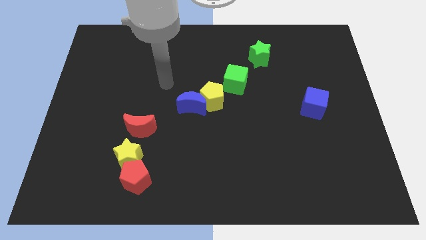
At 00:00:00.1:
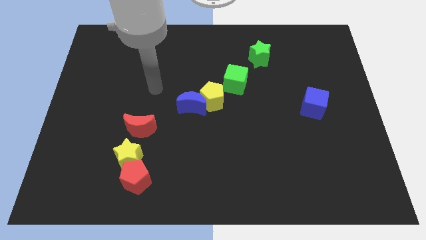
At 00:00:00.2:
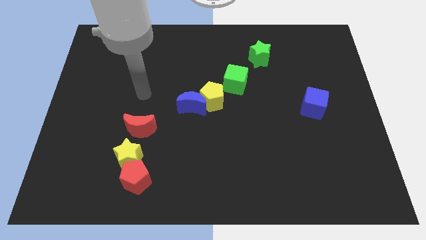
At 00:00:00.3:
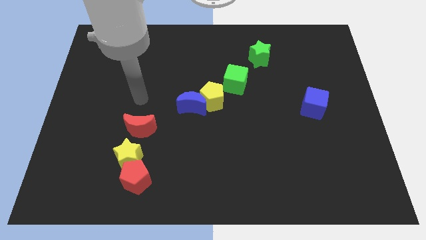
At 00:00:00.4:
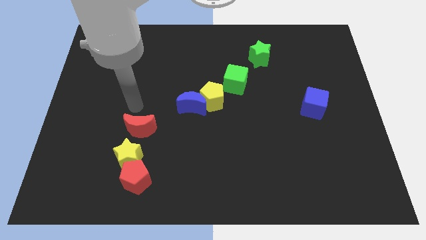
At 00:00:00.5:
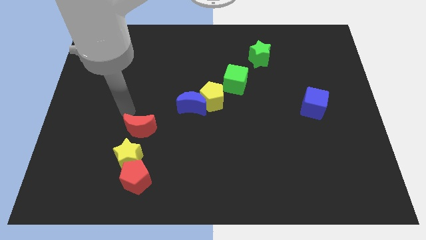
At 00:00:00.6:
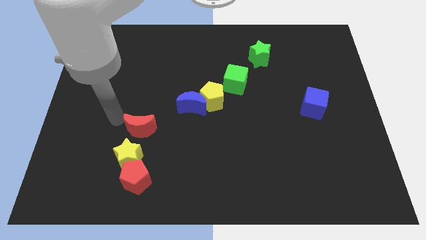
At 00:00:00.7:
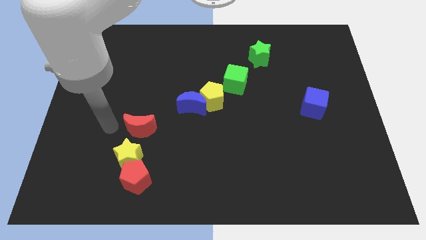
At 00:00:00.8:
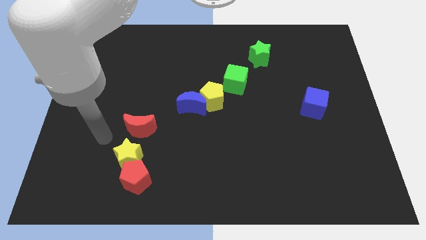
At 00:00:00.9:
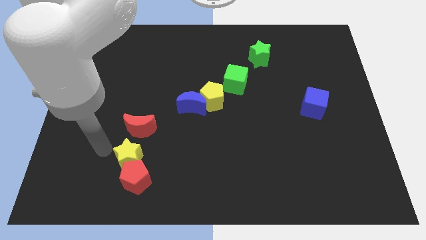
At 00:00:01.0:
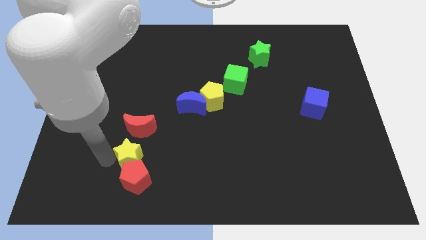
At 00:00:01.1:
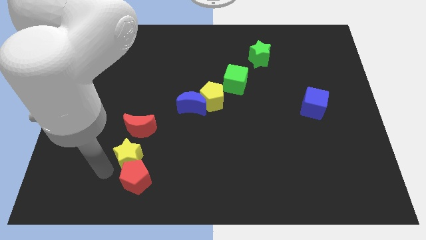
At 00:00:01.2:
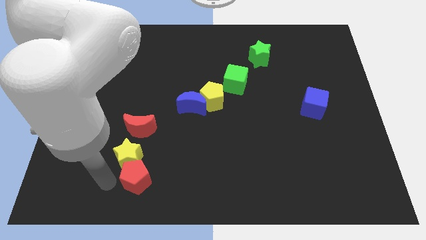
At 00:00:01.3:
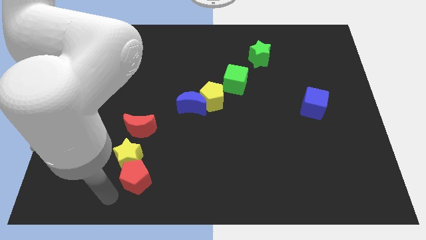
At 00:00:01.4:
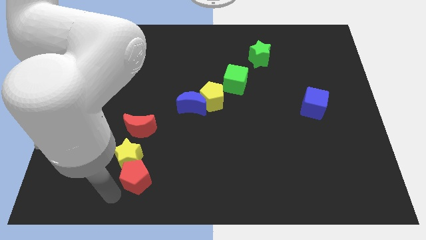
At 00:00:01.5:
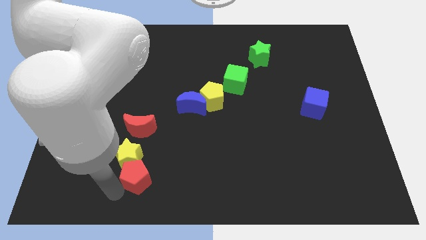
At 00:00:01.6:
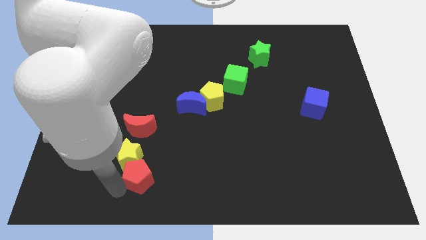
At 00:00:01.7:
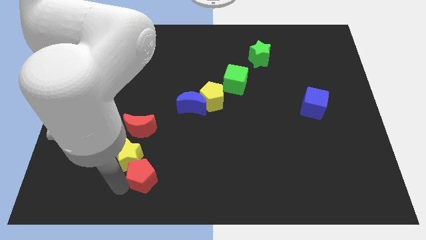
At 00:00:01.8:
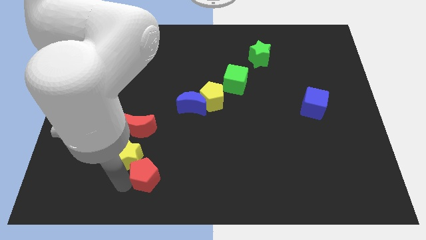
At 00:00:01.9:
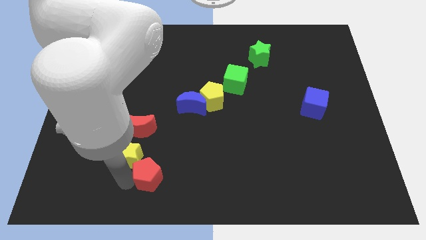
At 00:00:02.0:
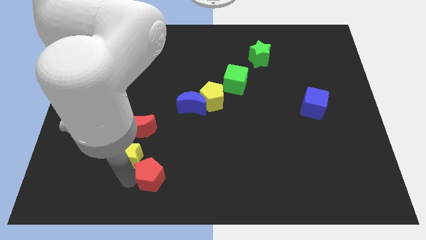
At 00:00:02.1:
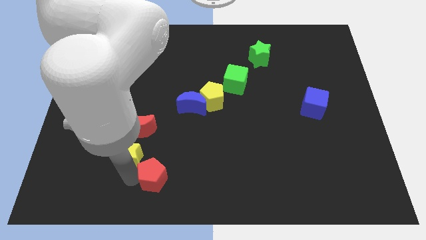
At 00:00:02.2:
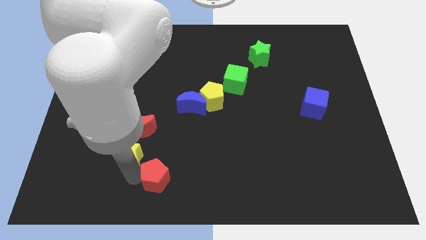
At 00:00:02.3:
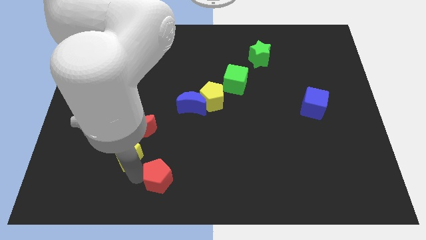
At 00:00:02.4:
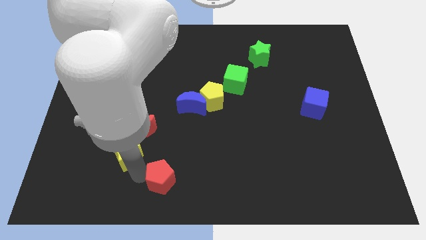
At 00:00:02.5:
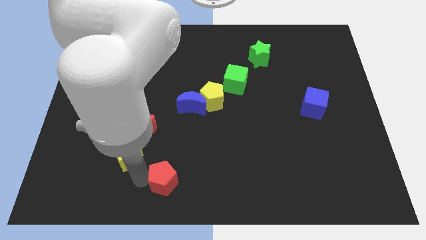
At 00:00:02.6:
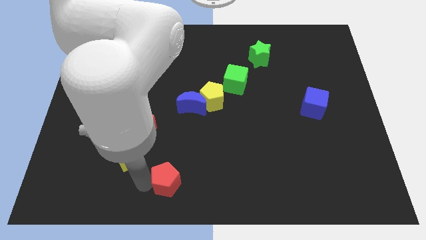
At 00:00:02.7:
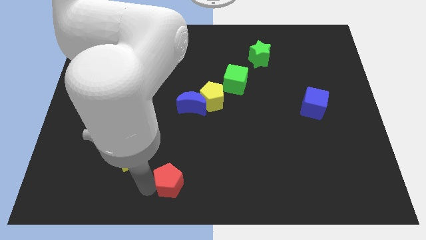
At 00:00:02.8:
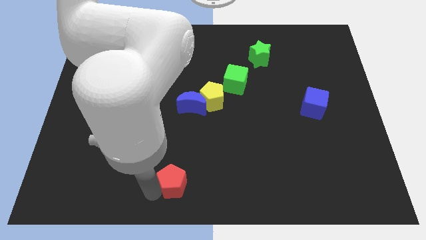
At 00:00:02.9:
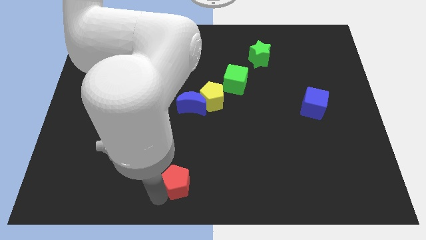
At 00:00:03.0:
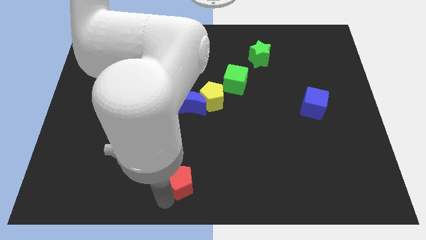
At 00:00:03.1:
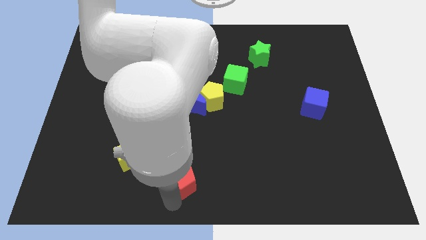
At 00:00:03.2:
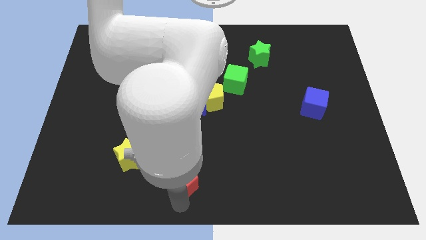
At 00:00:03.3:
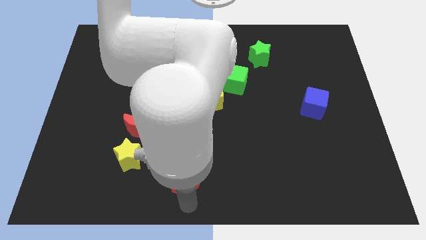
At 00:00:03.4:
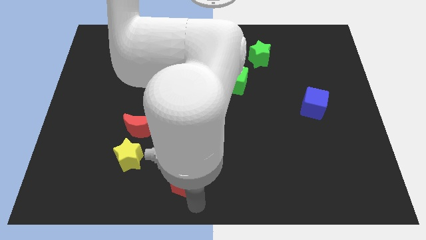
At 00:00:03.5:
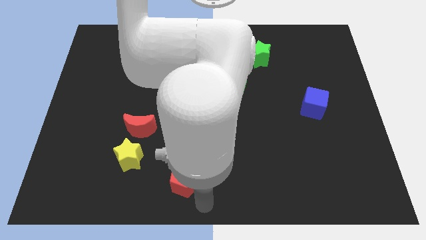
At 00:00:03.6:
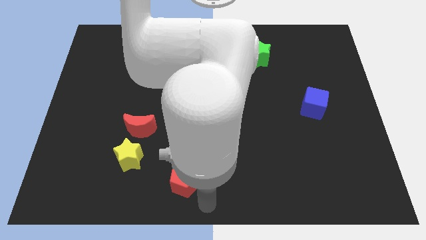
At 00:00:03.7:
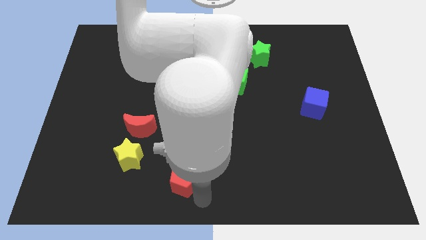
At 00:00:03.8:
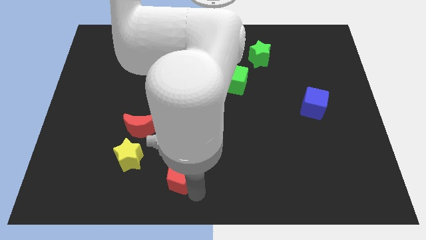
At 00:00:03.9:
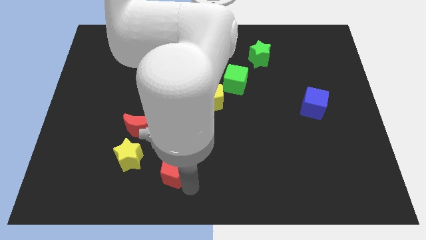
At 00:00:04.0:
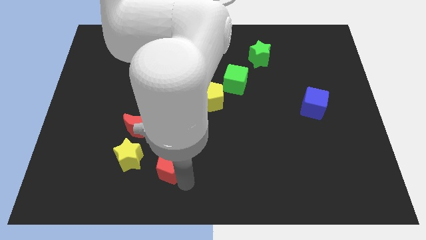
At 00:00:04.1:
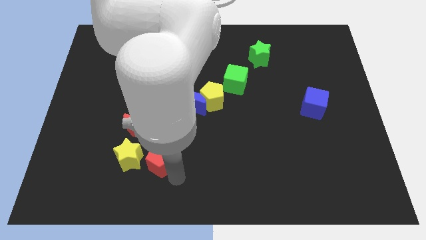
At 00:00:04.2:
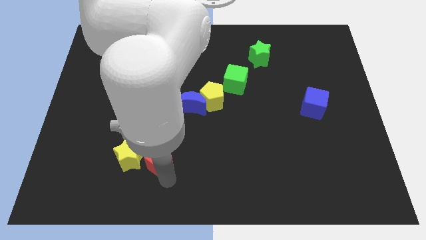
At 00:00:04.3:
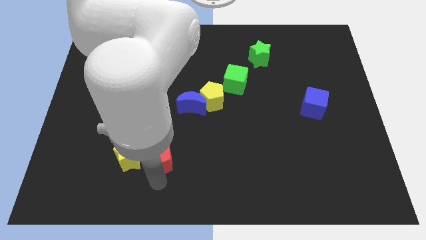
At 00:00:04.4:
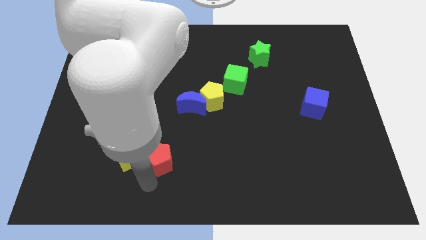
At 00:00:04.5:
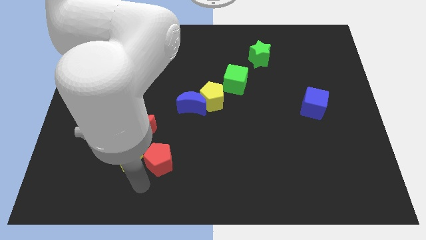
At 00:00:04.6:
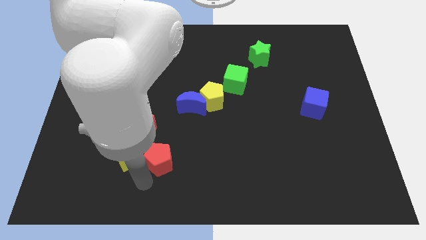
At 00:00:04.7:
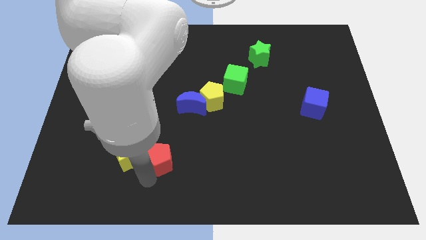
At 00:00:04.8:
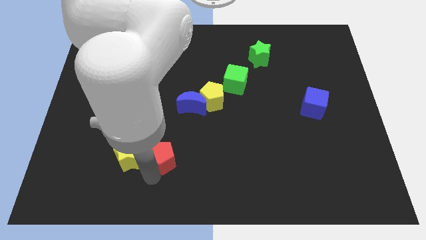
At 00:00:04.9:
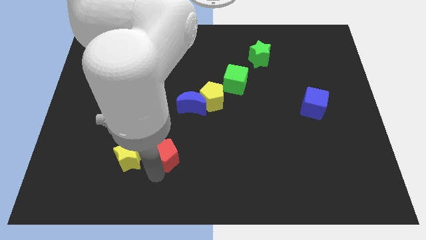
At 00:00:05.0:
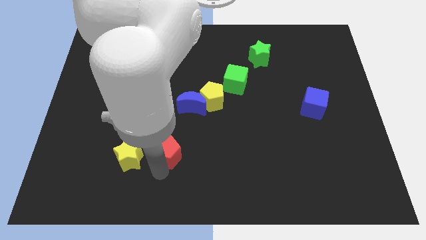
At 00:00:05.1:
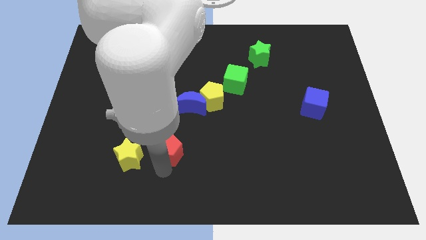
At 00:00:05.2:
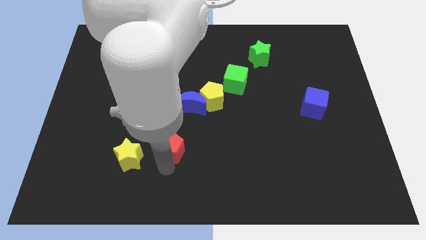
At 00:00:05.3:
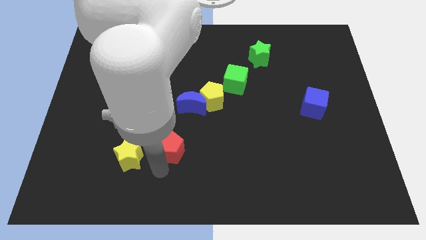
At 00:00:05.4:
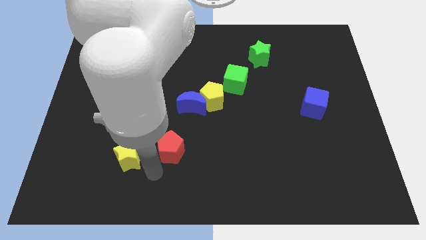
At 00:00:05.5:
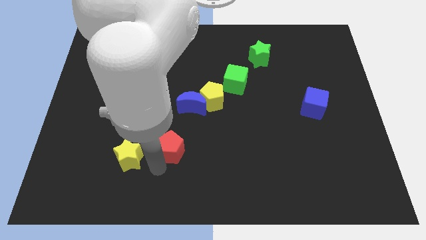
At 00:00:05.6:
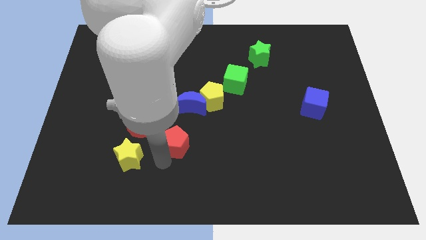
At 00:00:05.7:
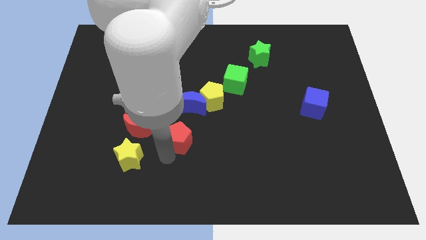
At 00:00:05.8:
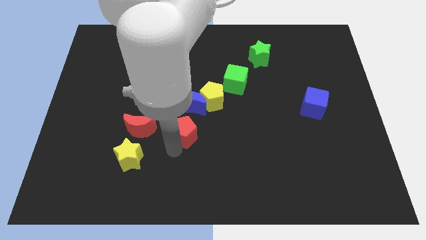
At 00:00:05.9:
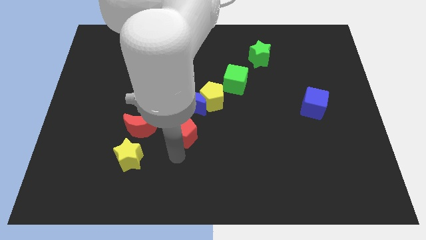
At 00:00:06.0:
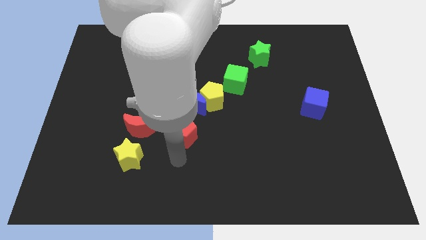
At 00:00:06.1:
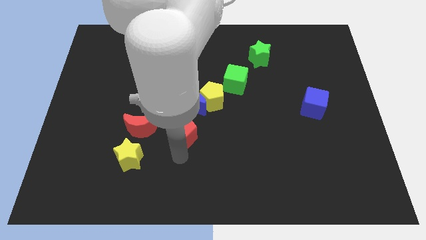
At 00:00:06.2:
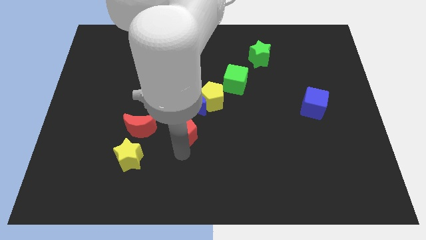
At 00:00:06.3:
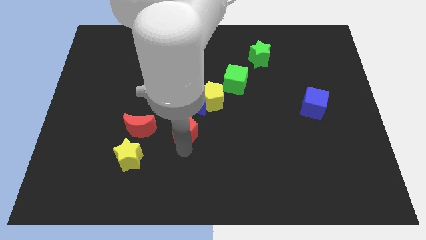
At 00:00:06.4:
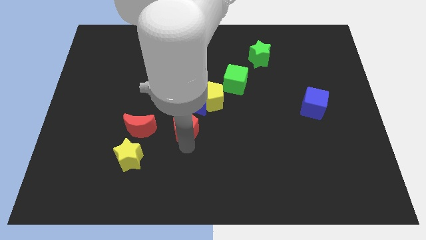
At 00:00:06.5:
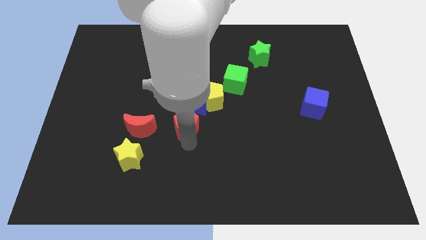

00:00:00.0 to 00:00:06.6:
put the red pentagon towards the blue moon

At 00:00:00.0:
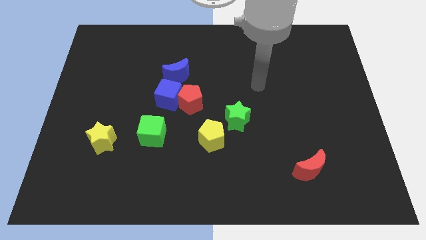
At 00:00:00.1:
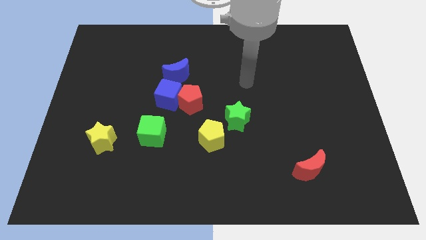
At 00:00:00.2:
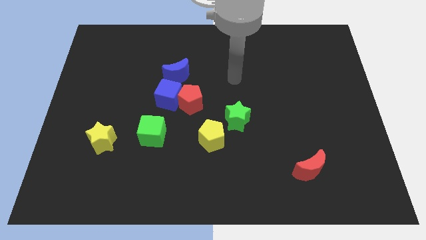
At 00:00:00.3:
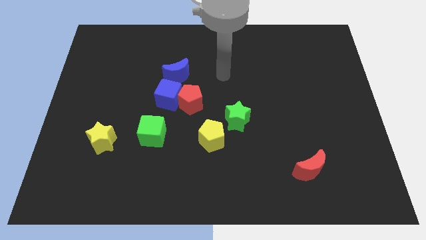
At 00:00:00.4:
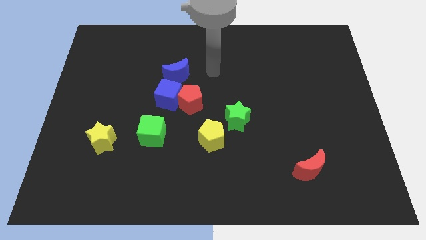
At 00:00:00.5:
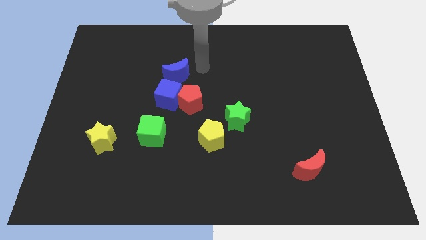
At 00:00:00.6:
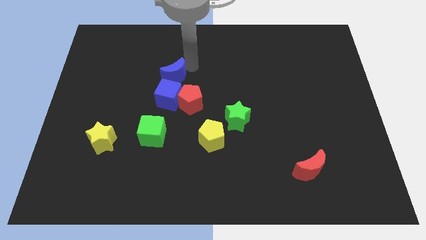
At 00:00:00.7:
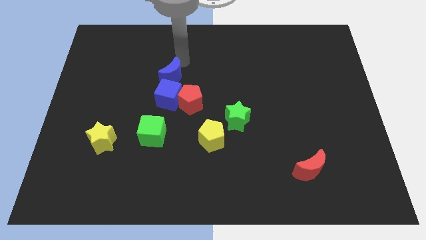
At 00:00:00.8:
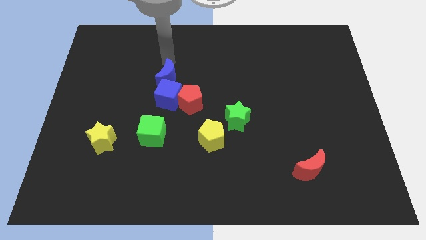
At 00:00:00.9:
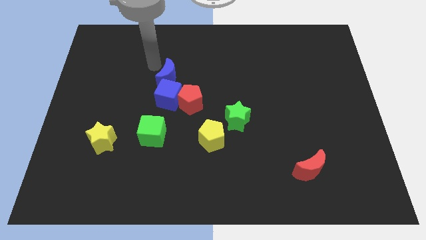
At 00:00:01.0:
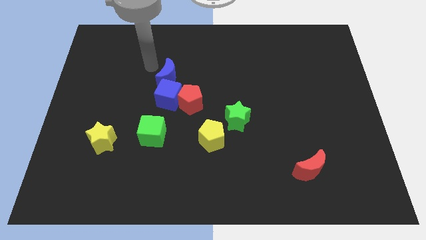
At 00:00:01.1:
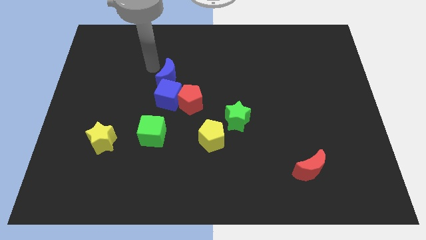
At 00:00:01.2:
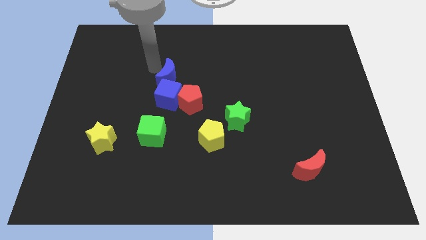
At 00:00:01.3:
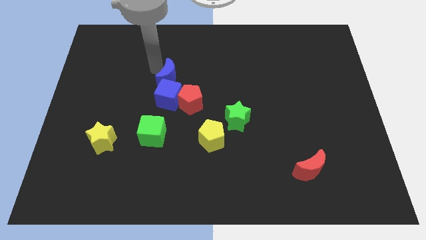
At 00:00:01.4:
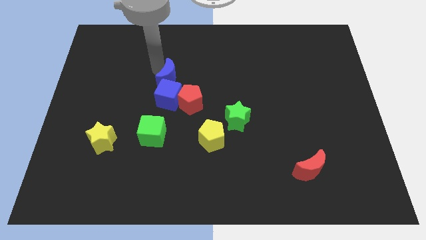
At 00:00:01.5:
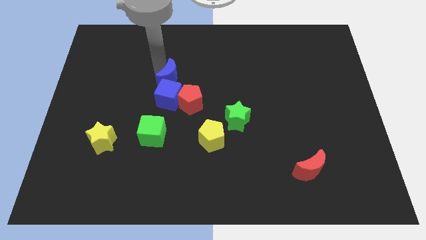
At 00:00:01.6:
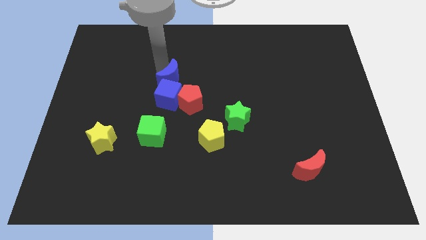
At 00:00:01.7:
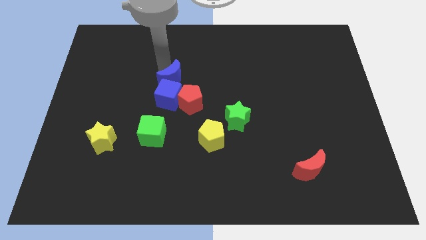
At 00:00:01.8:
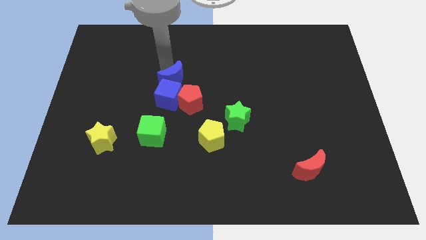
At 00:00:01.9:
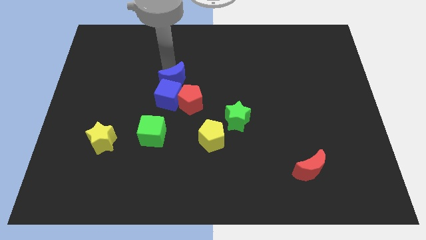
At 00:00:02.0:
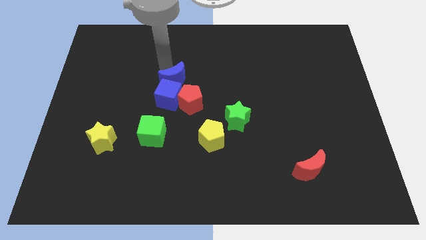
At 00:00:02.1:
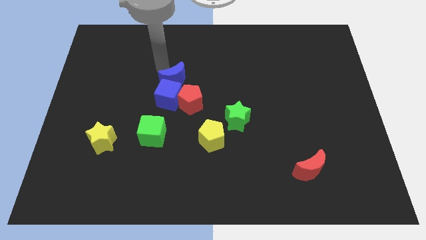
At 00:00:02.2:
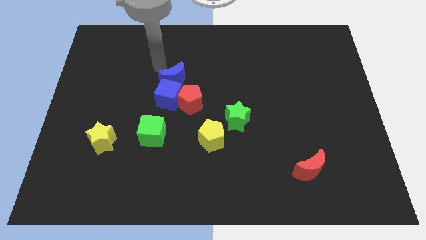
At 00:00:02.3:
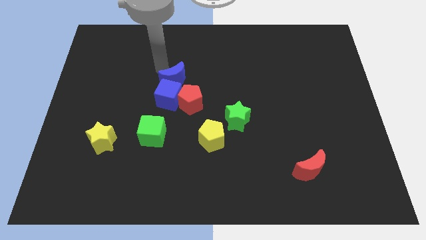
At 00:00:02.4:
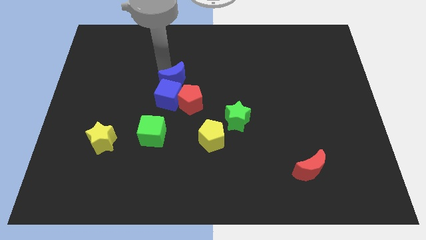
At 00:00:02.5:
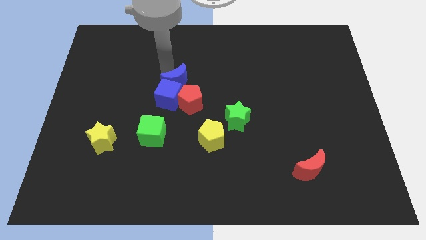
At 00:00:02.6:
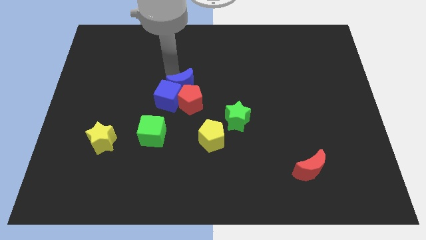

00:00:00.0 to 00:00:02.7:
move the blue moon towards the red pentagon
